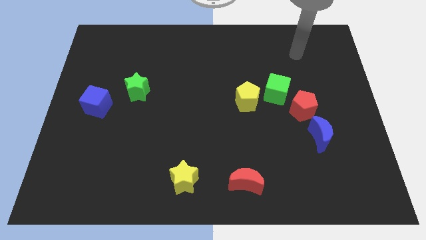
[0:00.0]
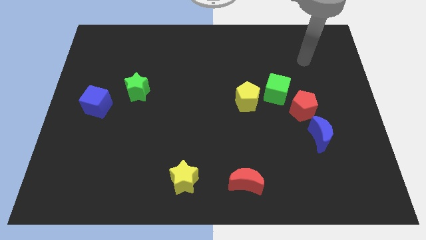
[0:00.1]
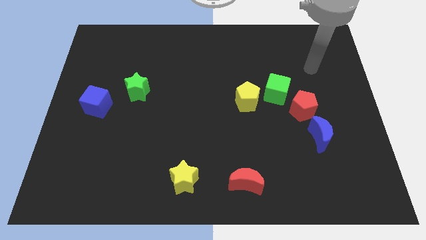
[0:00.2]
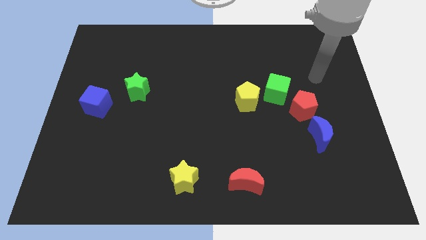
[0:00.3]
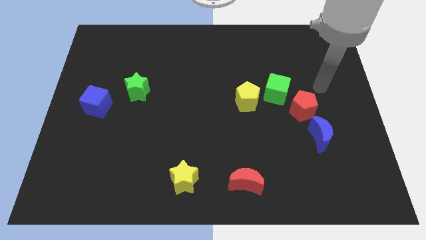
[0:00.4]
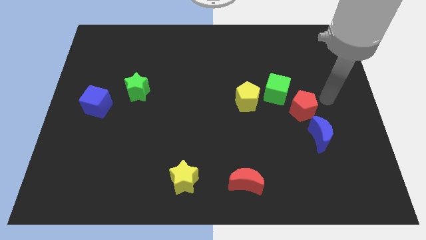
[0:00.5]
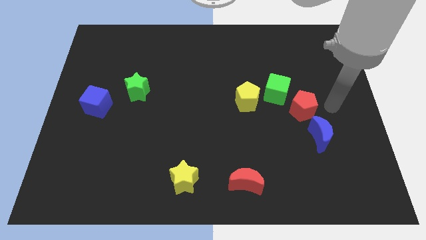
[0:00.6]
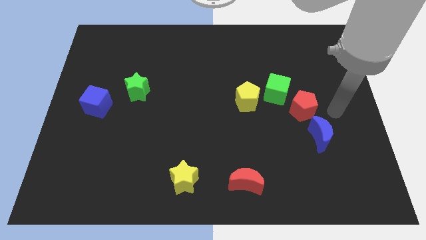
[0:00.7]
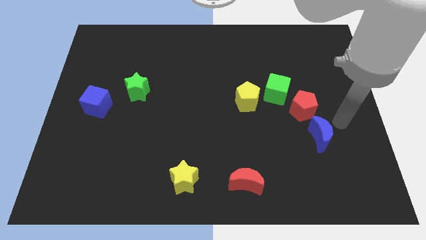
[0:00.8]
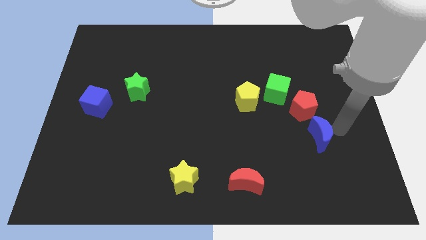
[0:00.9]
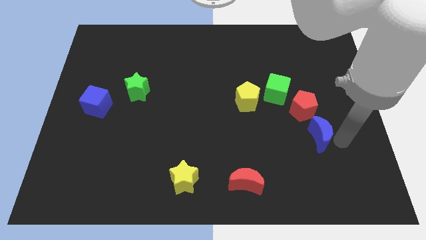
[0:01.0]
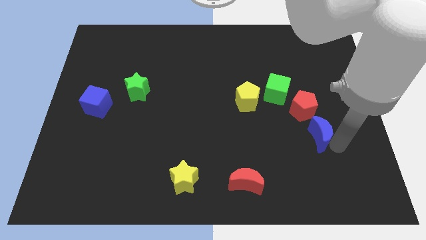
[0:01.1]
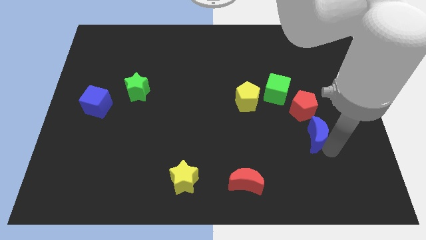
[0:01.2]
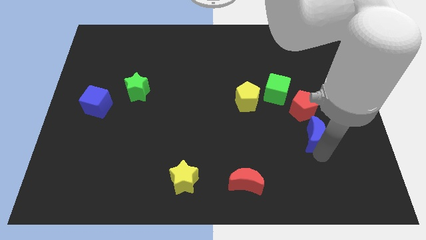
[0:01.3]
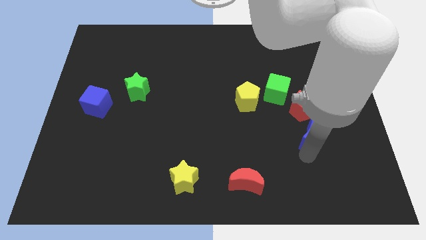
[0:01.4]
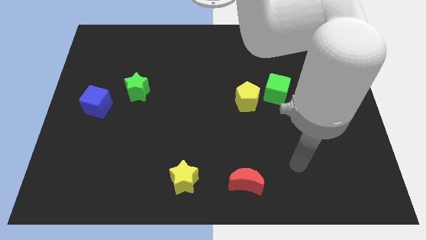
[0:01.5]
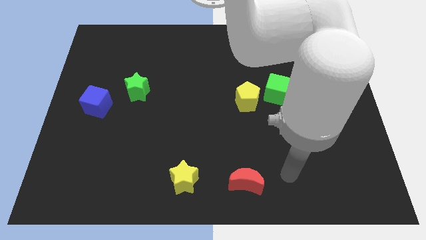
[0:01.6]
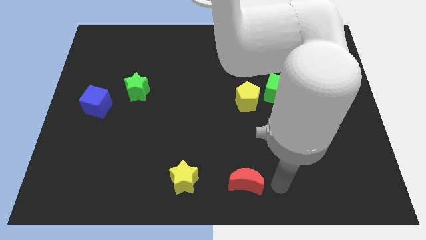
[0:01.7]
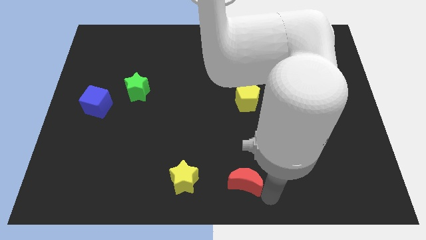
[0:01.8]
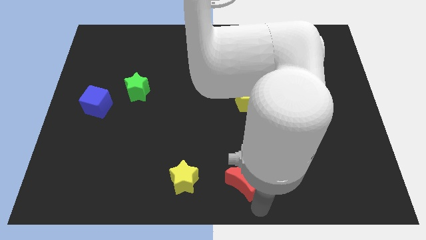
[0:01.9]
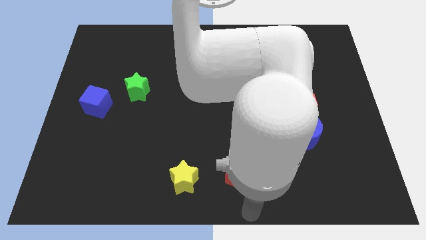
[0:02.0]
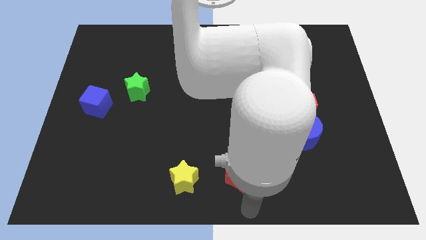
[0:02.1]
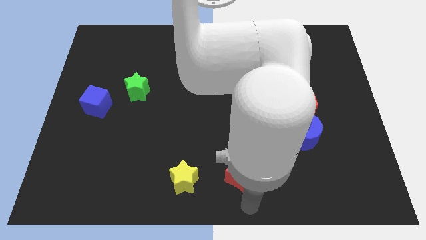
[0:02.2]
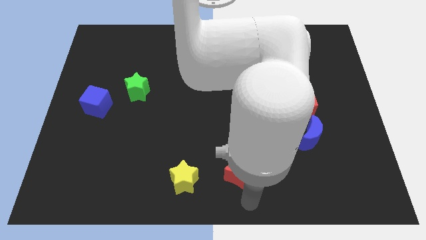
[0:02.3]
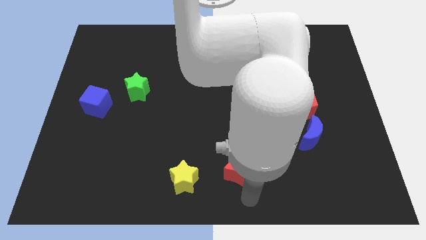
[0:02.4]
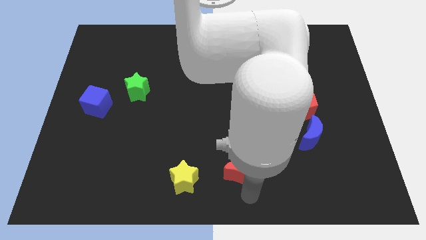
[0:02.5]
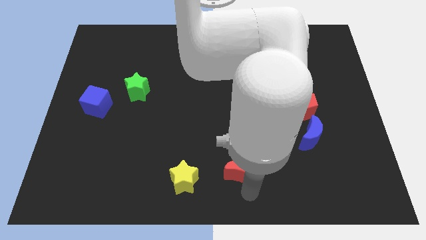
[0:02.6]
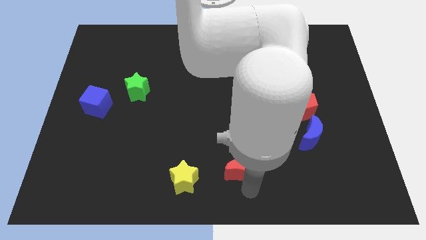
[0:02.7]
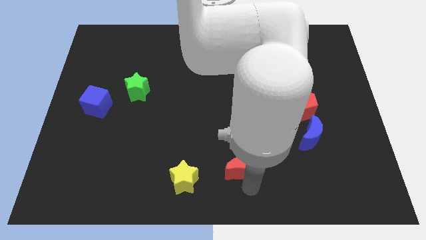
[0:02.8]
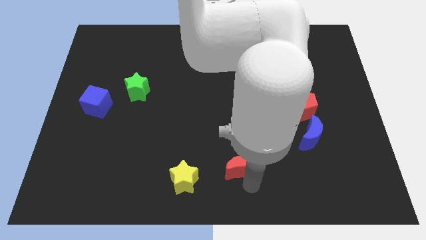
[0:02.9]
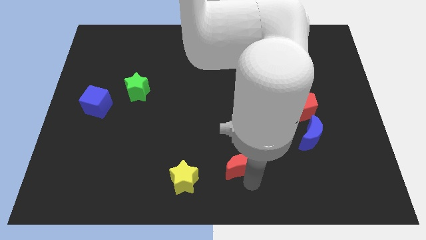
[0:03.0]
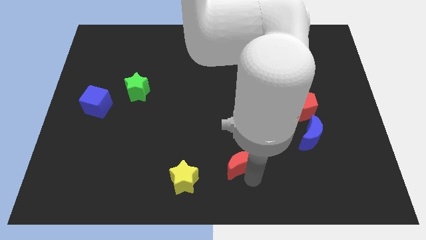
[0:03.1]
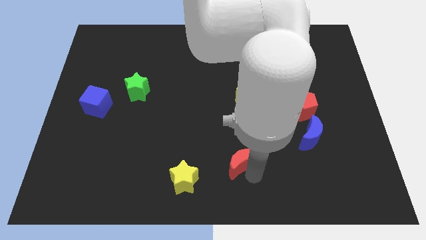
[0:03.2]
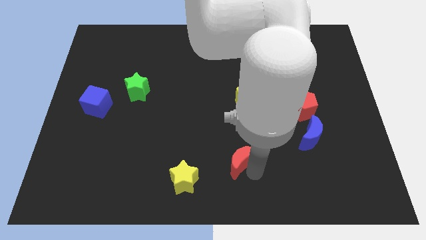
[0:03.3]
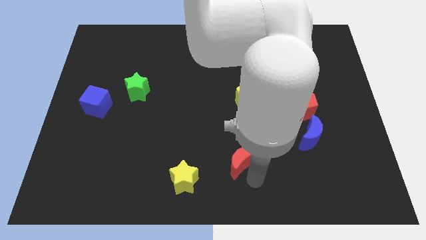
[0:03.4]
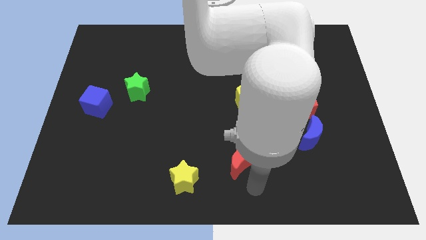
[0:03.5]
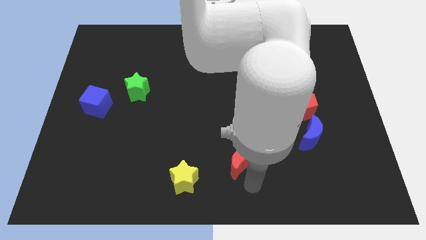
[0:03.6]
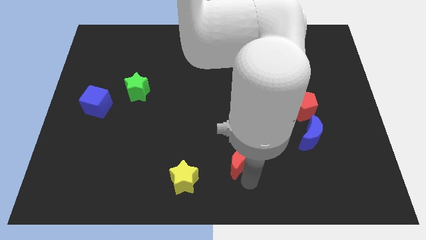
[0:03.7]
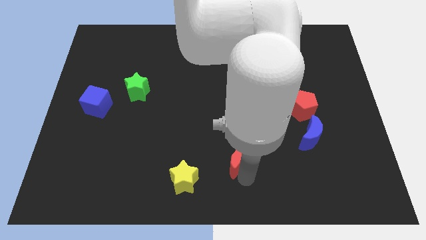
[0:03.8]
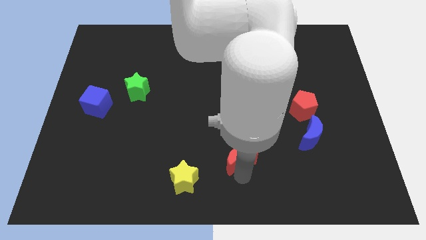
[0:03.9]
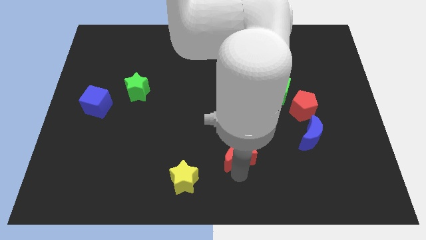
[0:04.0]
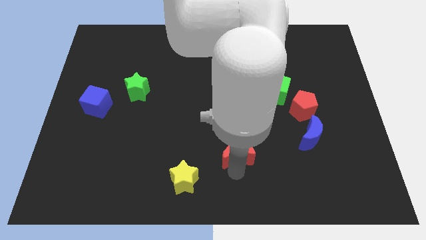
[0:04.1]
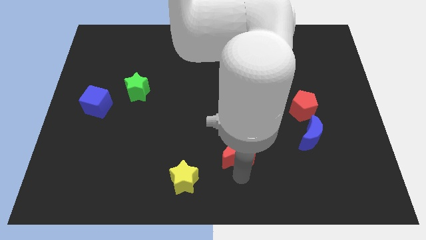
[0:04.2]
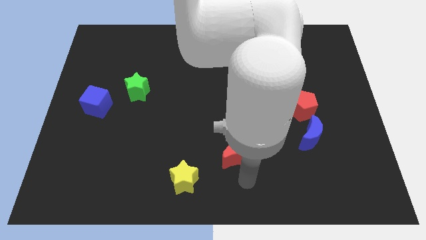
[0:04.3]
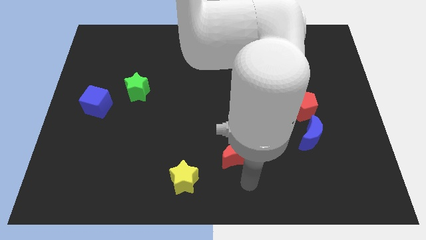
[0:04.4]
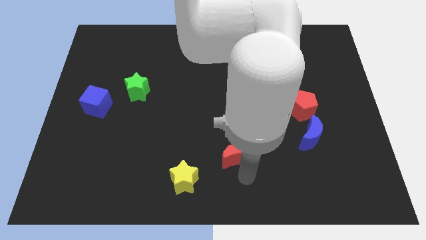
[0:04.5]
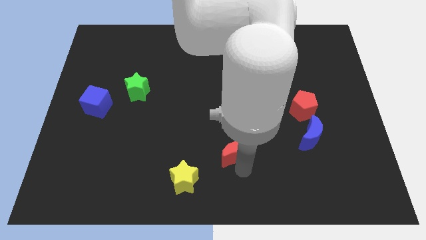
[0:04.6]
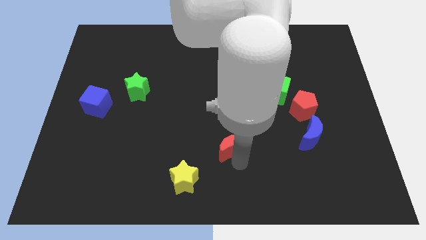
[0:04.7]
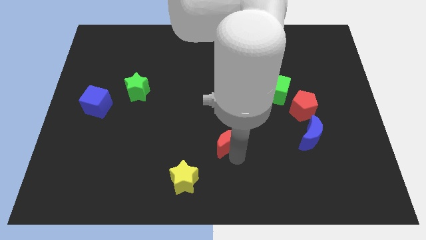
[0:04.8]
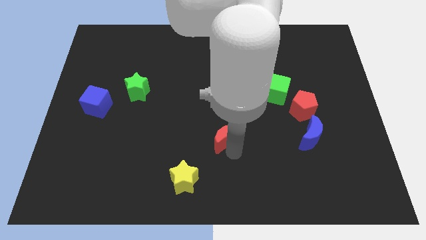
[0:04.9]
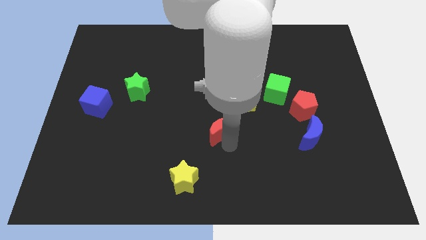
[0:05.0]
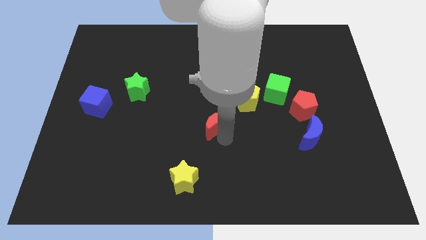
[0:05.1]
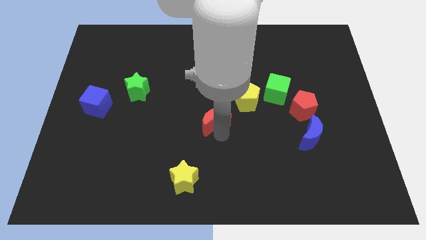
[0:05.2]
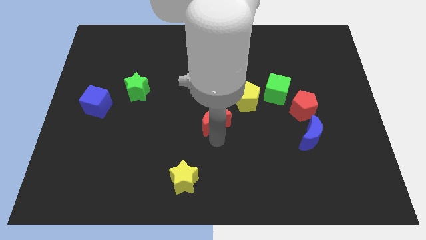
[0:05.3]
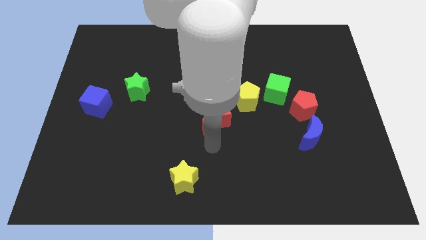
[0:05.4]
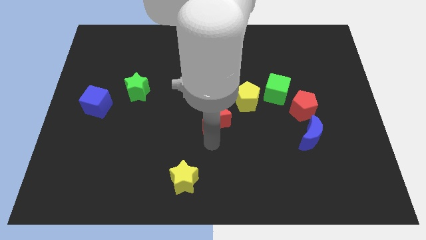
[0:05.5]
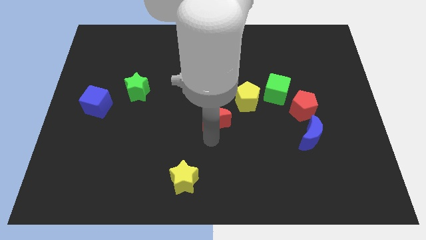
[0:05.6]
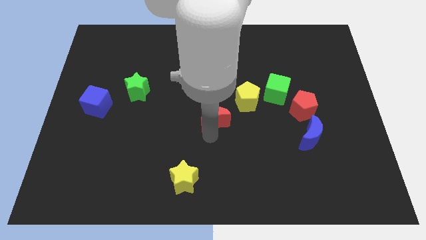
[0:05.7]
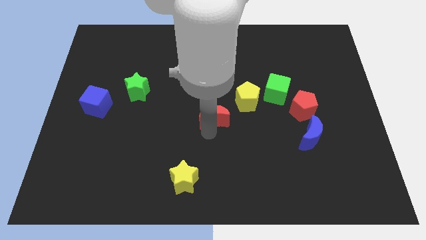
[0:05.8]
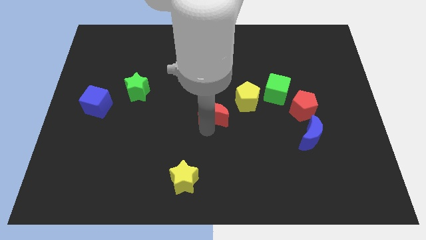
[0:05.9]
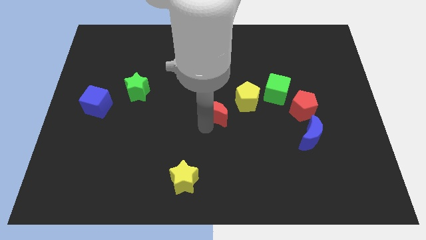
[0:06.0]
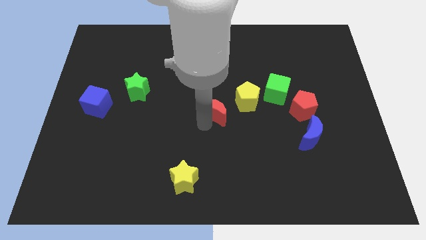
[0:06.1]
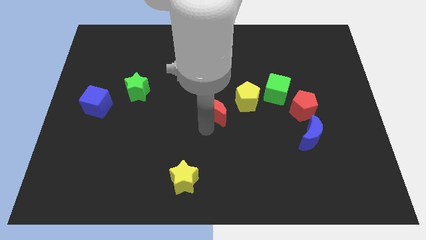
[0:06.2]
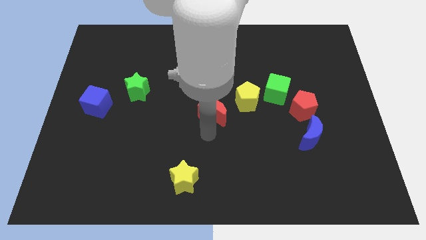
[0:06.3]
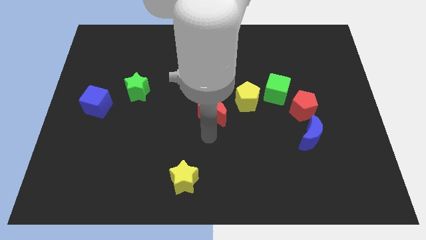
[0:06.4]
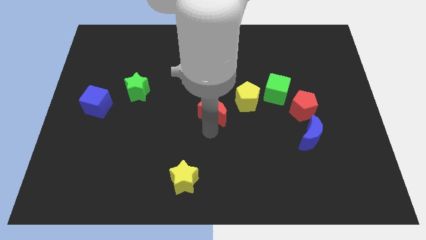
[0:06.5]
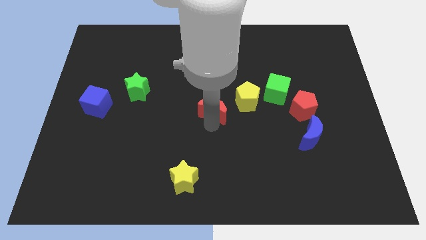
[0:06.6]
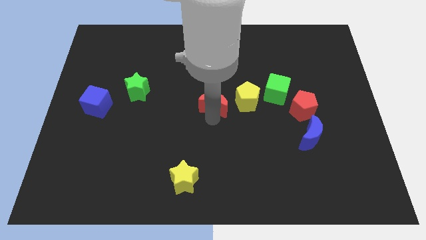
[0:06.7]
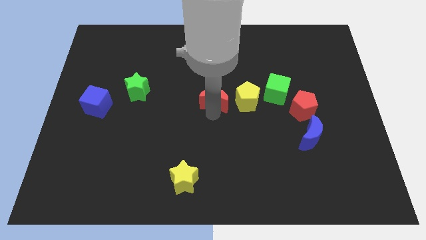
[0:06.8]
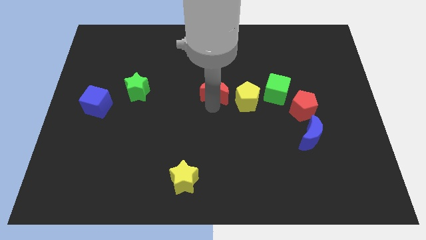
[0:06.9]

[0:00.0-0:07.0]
slide the red moon up

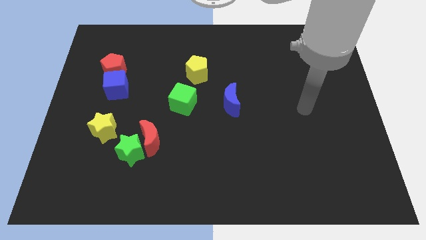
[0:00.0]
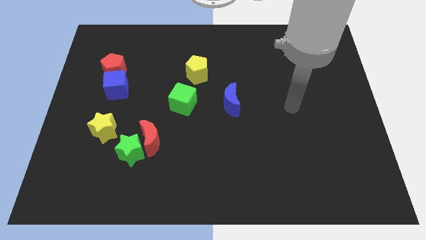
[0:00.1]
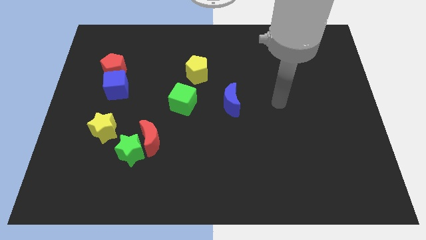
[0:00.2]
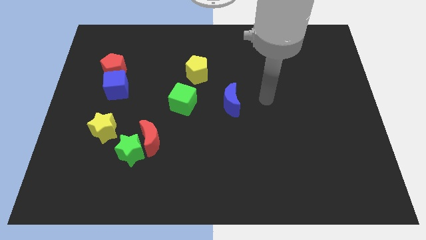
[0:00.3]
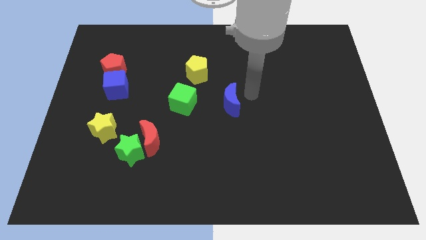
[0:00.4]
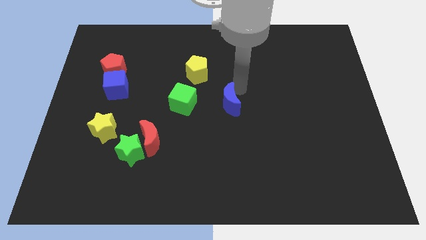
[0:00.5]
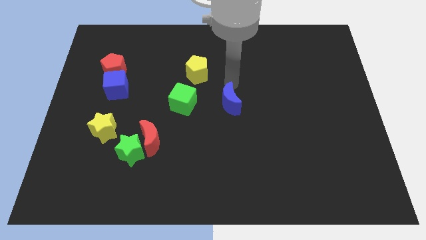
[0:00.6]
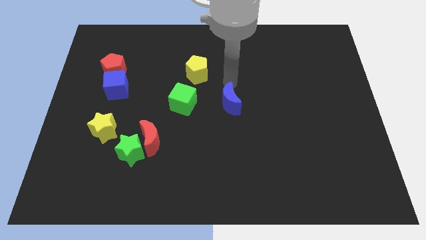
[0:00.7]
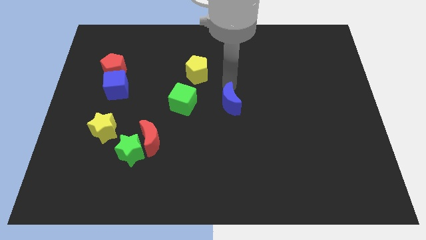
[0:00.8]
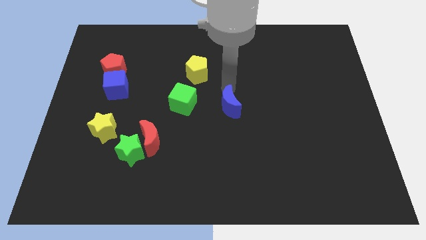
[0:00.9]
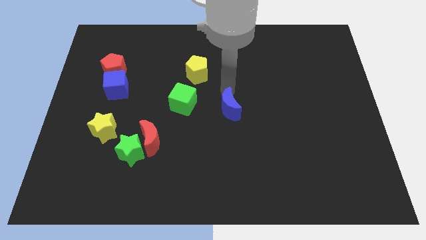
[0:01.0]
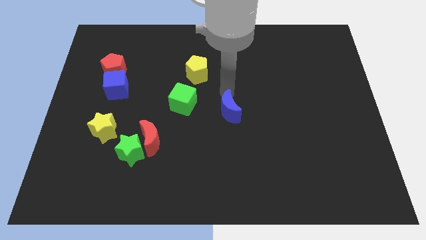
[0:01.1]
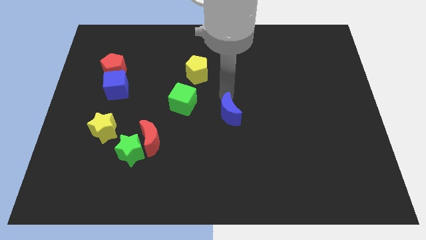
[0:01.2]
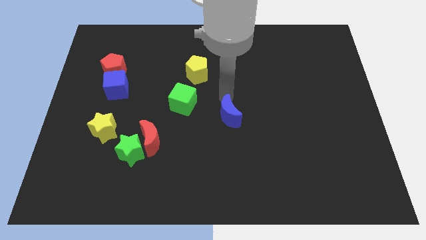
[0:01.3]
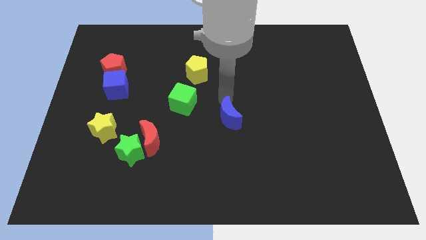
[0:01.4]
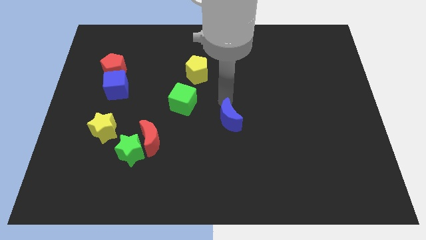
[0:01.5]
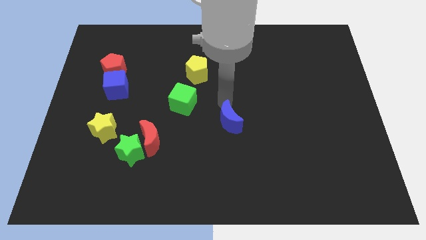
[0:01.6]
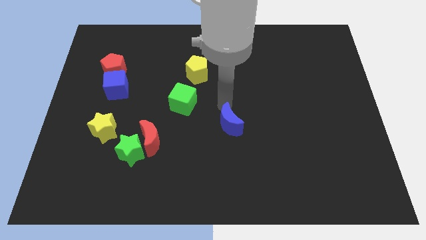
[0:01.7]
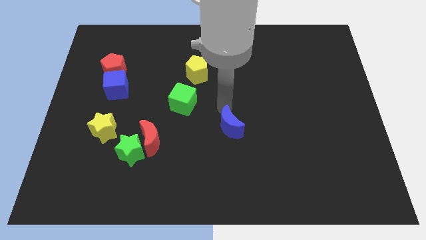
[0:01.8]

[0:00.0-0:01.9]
slide the blue moon down a little bit
